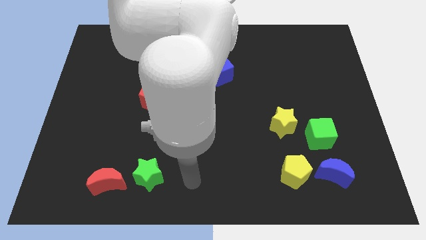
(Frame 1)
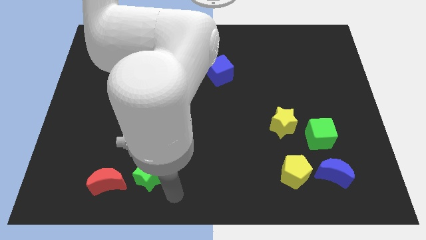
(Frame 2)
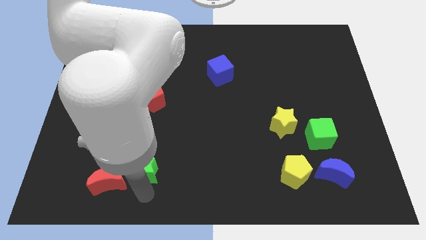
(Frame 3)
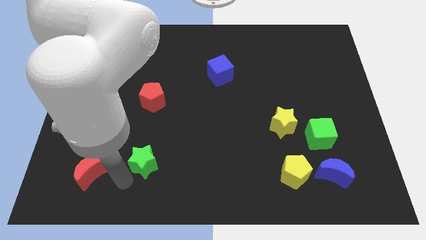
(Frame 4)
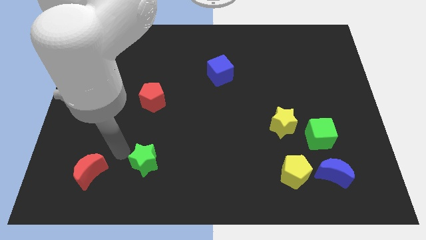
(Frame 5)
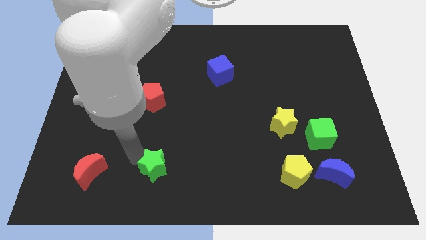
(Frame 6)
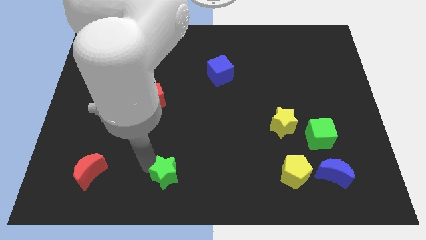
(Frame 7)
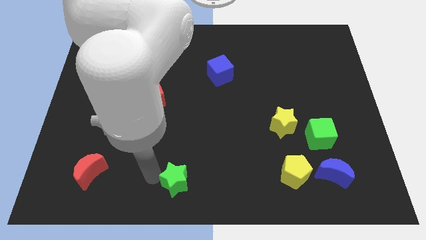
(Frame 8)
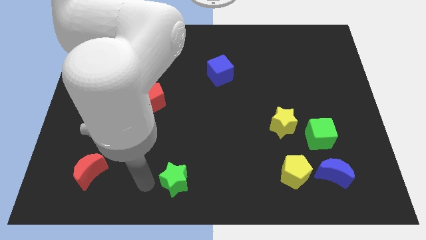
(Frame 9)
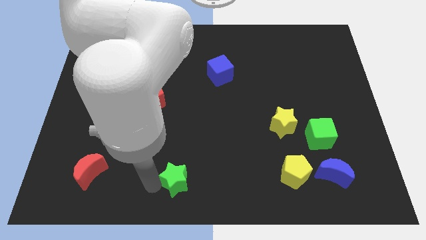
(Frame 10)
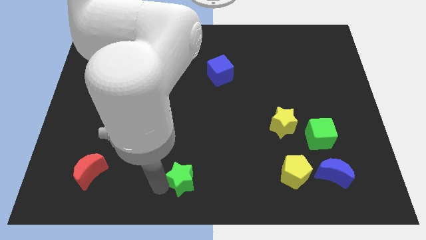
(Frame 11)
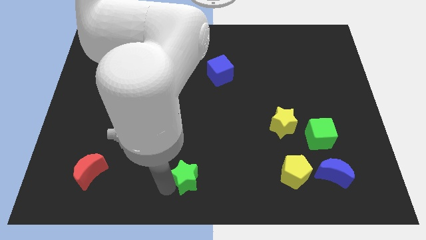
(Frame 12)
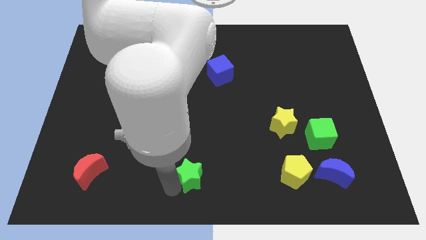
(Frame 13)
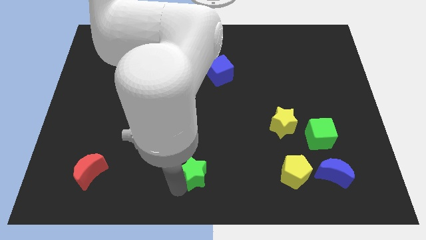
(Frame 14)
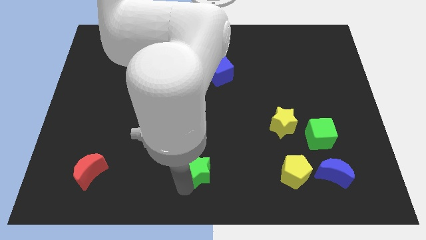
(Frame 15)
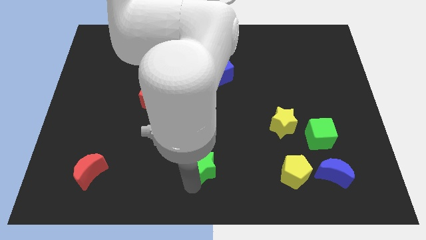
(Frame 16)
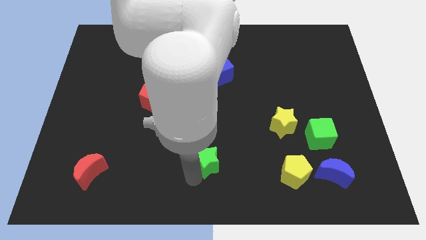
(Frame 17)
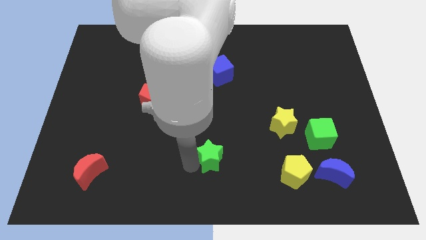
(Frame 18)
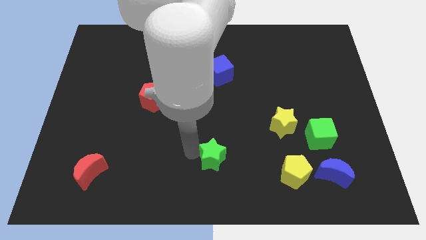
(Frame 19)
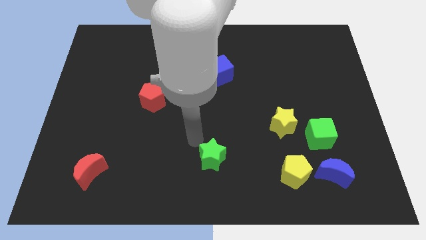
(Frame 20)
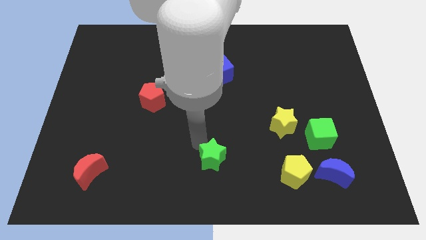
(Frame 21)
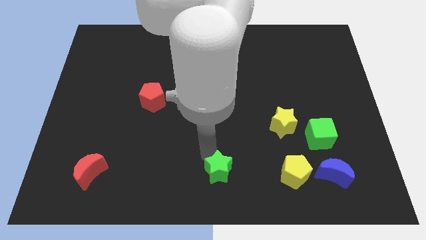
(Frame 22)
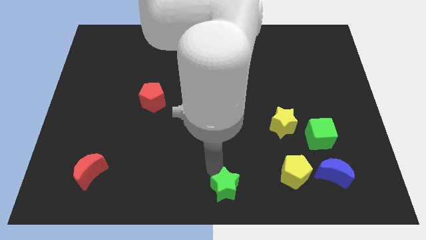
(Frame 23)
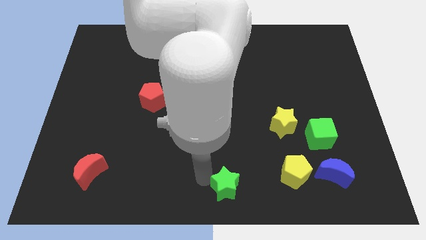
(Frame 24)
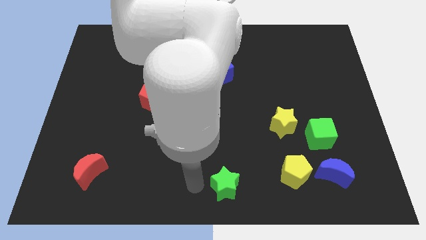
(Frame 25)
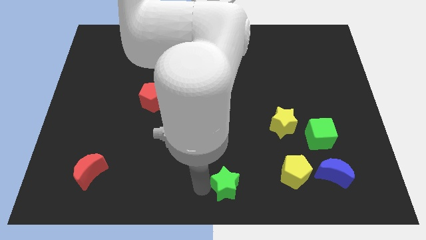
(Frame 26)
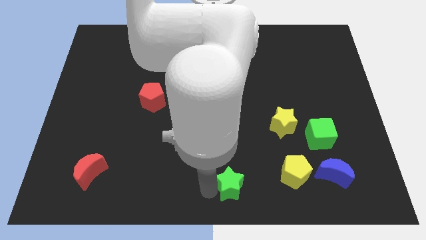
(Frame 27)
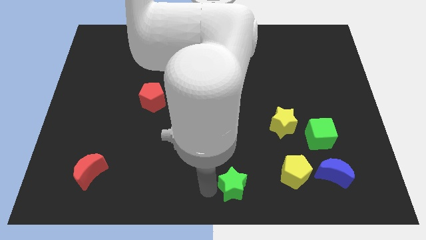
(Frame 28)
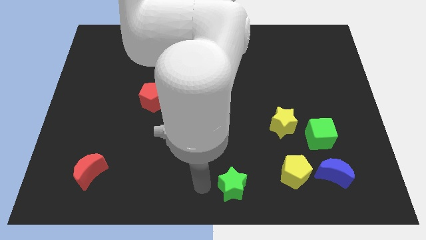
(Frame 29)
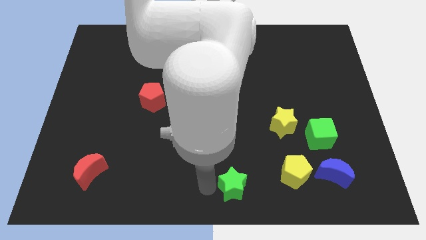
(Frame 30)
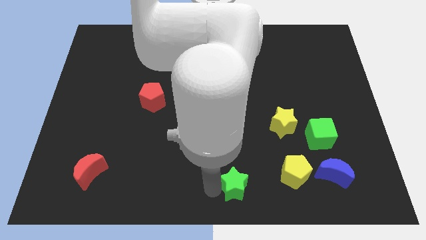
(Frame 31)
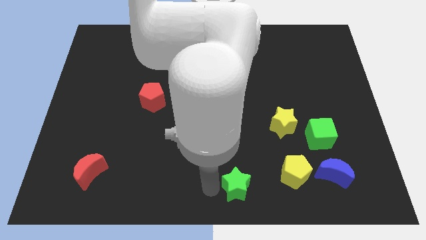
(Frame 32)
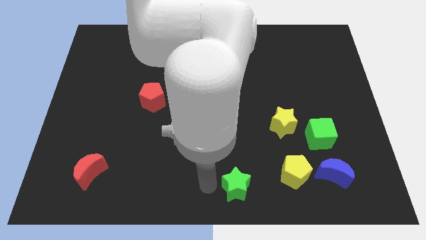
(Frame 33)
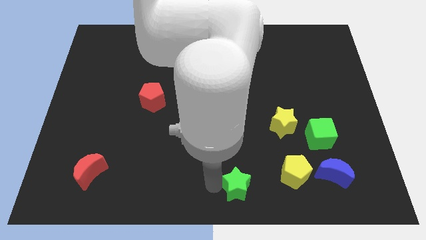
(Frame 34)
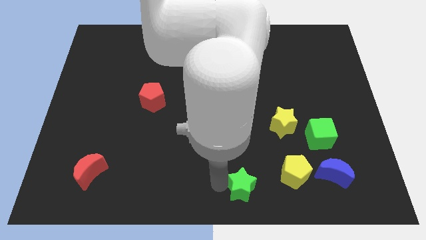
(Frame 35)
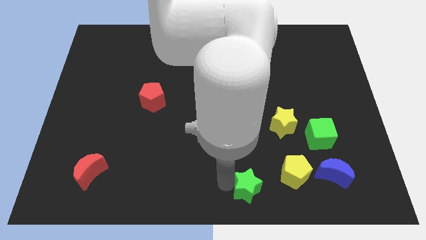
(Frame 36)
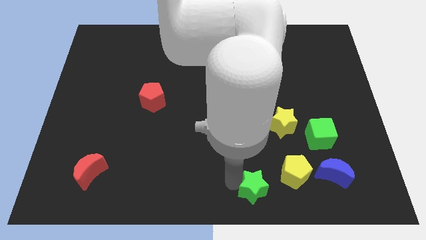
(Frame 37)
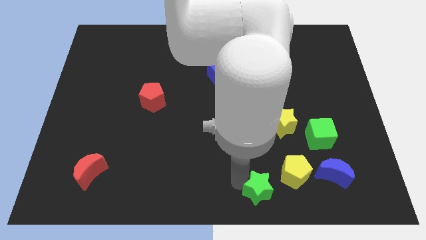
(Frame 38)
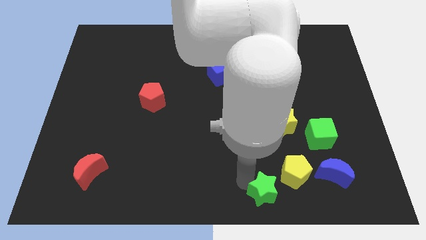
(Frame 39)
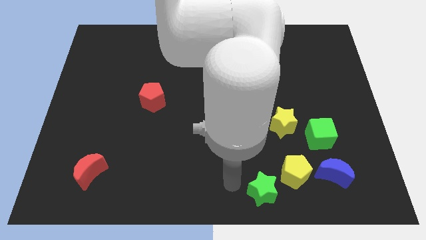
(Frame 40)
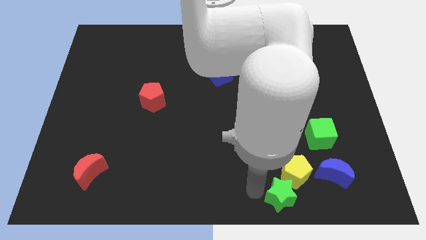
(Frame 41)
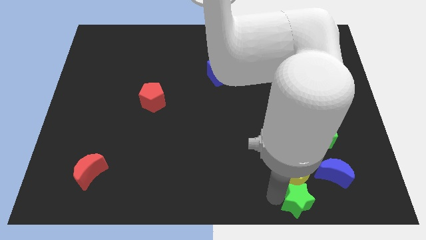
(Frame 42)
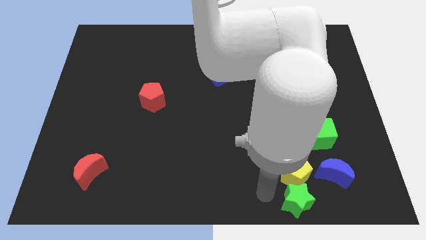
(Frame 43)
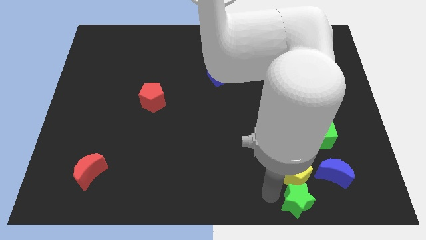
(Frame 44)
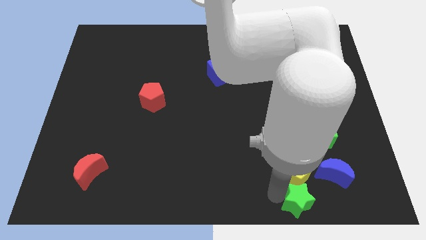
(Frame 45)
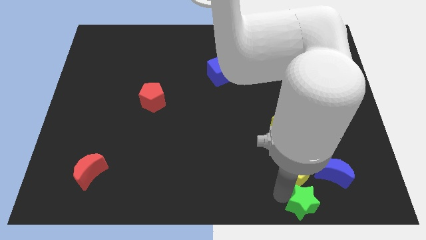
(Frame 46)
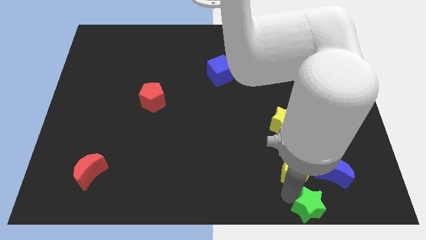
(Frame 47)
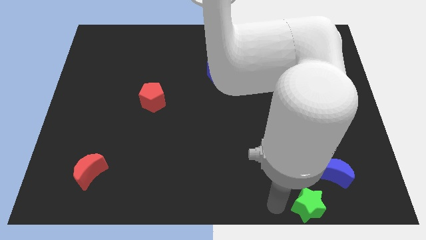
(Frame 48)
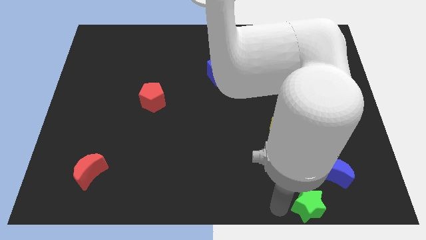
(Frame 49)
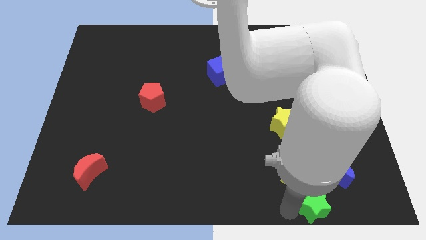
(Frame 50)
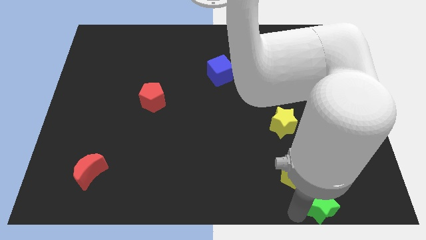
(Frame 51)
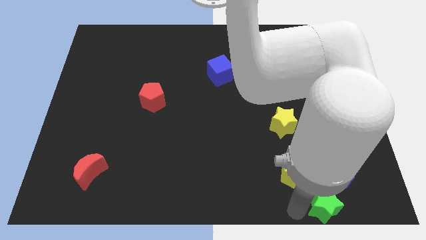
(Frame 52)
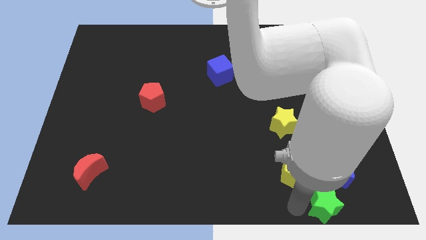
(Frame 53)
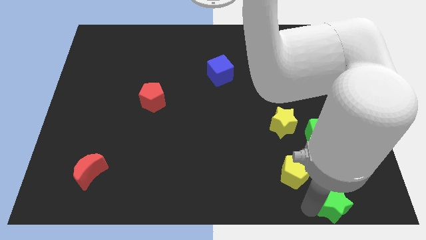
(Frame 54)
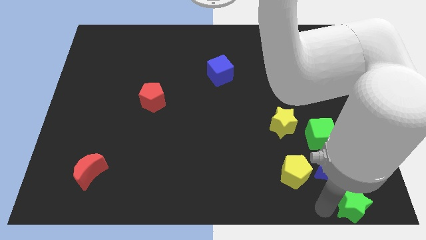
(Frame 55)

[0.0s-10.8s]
move the green star to the lower right corner

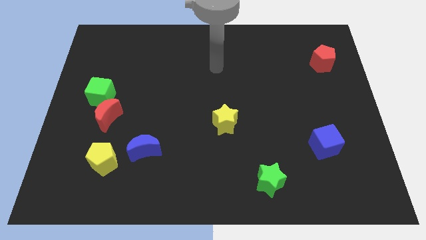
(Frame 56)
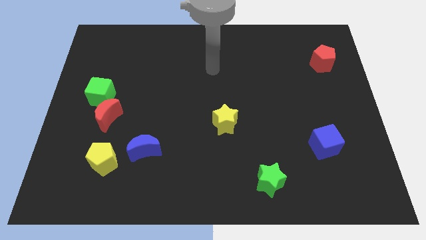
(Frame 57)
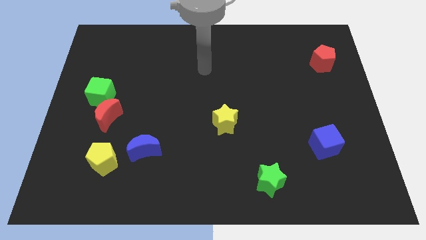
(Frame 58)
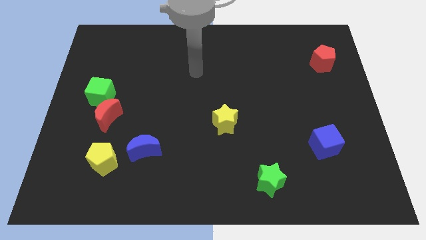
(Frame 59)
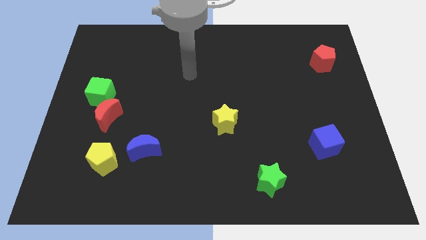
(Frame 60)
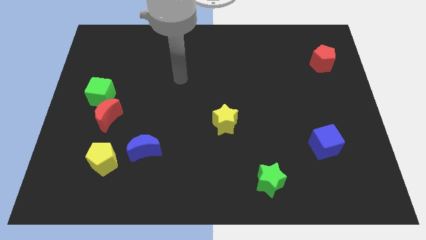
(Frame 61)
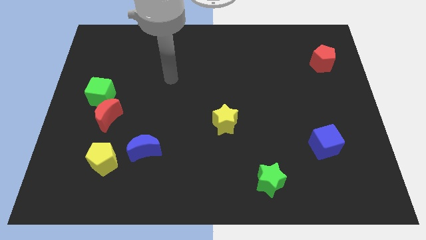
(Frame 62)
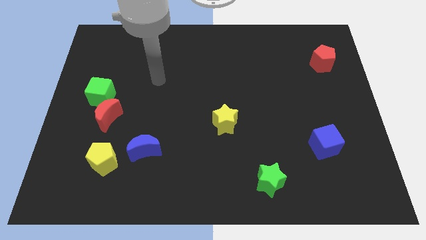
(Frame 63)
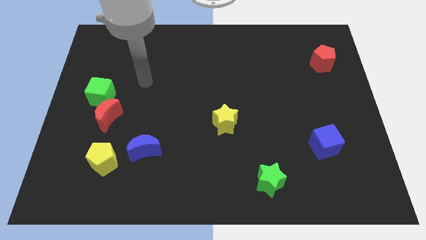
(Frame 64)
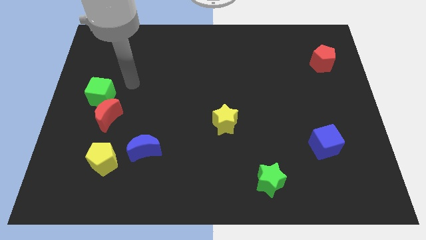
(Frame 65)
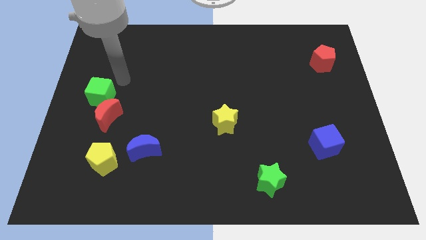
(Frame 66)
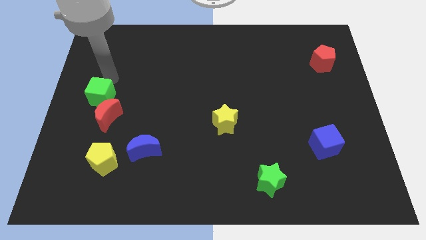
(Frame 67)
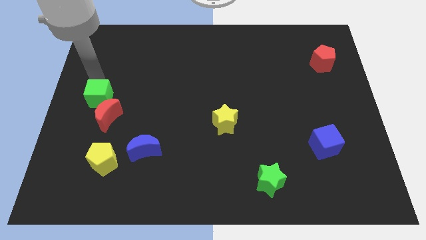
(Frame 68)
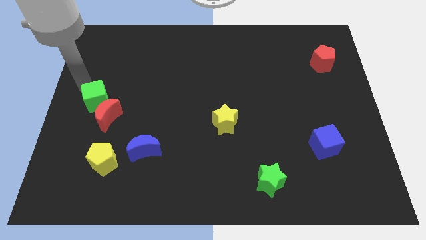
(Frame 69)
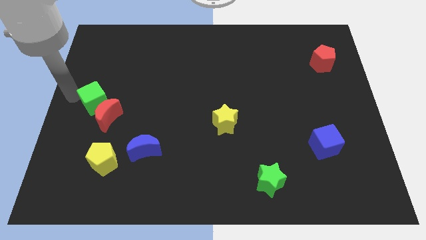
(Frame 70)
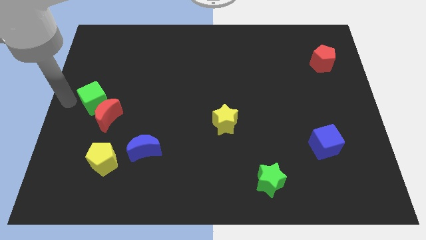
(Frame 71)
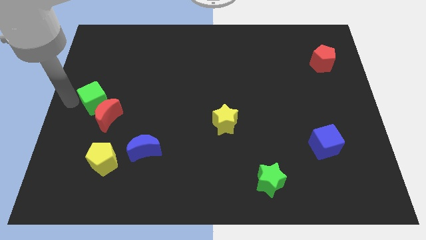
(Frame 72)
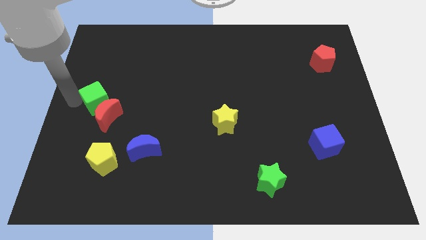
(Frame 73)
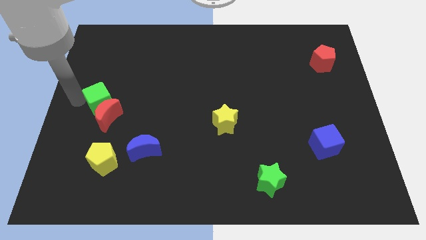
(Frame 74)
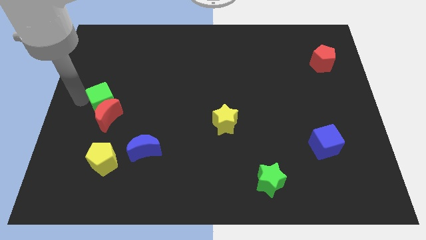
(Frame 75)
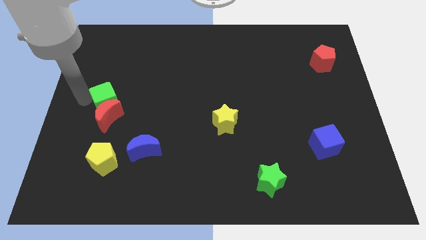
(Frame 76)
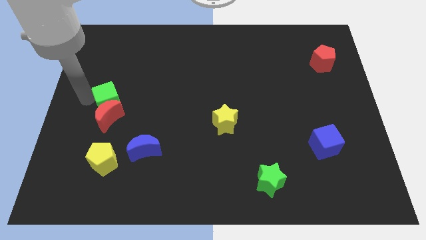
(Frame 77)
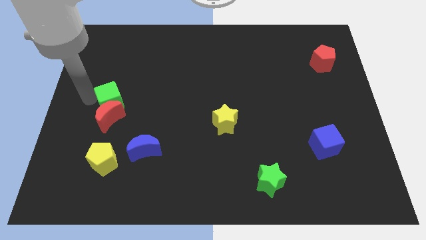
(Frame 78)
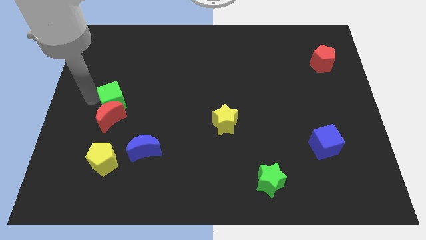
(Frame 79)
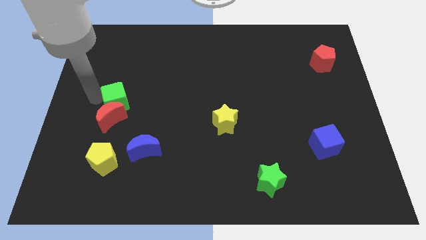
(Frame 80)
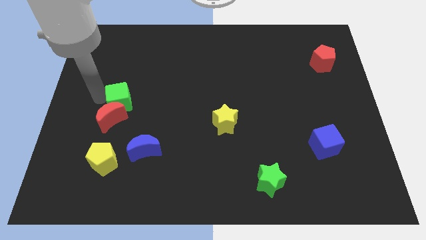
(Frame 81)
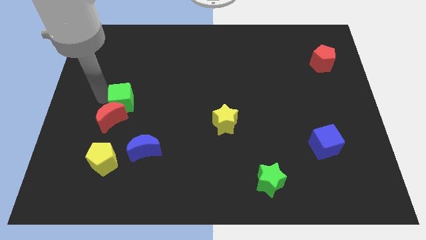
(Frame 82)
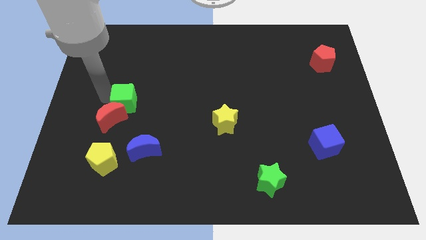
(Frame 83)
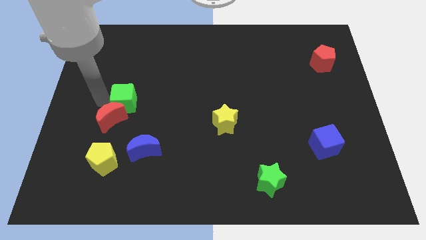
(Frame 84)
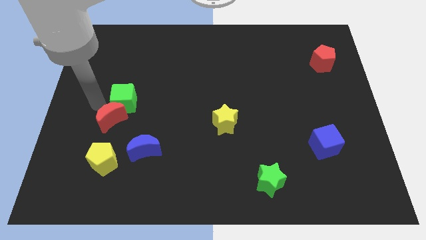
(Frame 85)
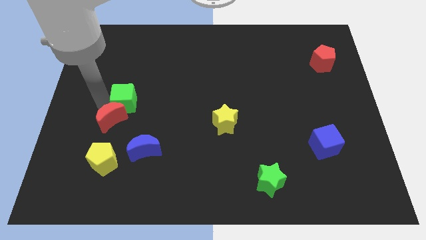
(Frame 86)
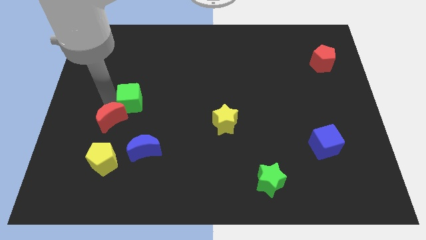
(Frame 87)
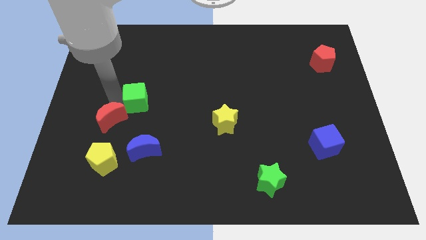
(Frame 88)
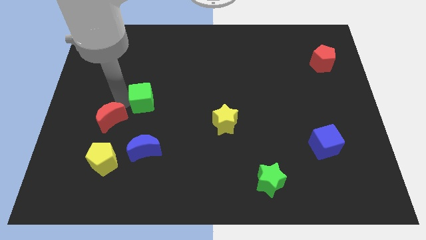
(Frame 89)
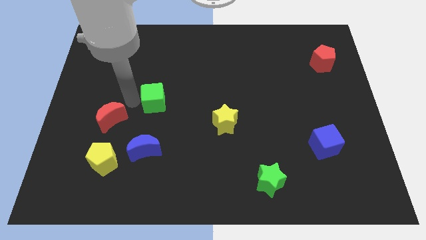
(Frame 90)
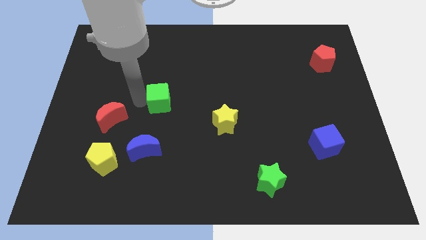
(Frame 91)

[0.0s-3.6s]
put the green cube to the center
